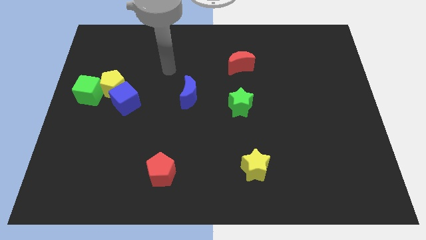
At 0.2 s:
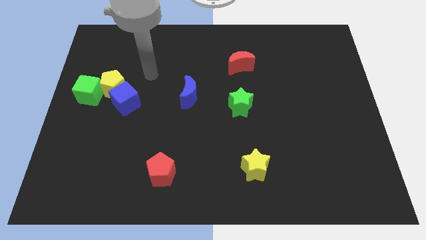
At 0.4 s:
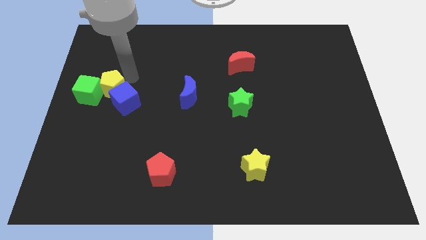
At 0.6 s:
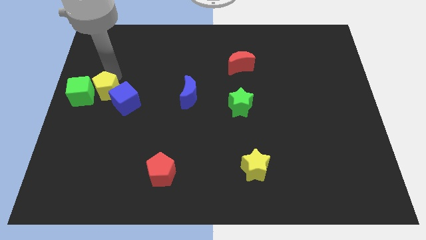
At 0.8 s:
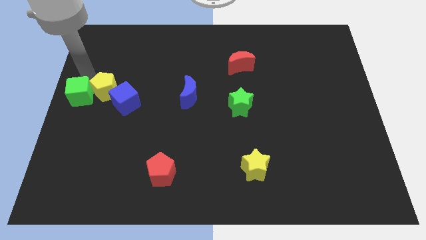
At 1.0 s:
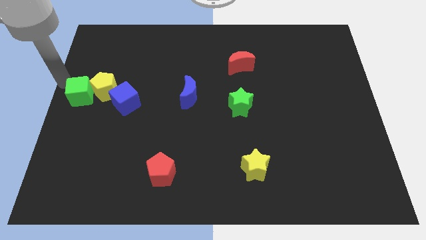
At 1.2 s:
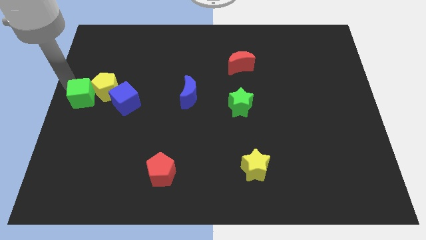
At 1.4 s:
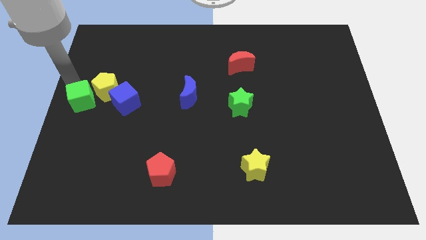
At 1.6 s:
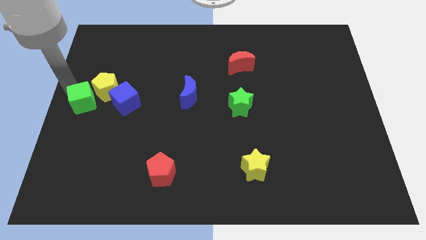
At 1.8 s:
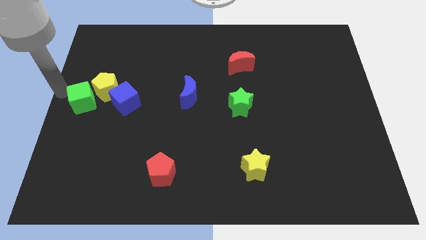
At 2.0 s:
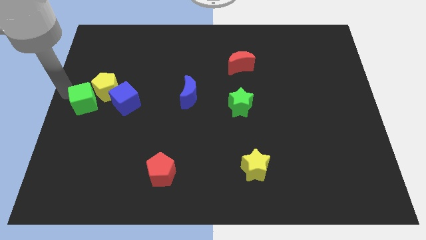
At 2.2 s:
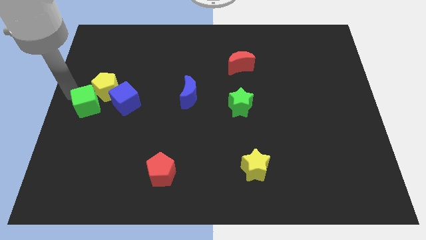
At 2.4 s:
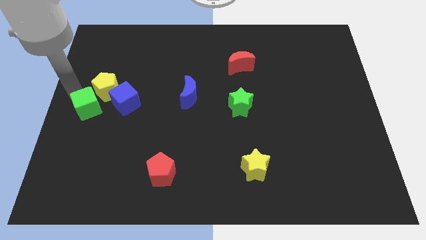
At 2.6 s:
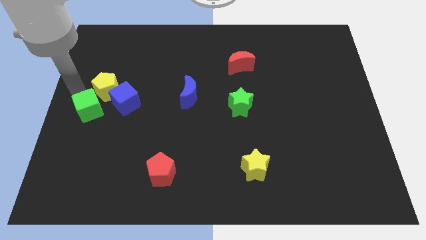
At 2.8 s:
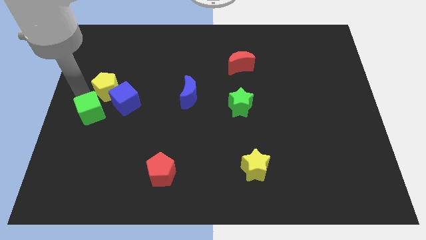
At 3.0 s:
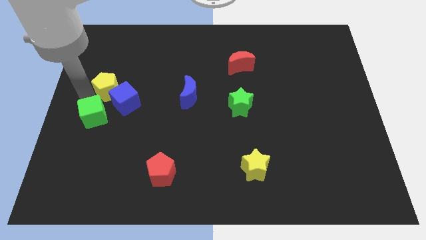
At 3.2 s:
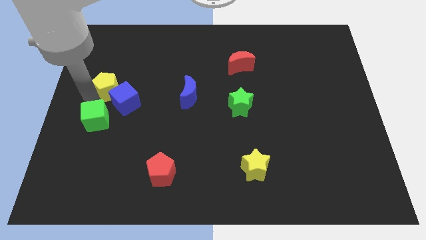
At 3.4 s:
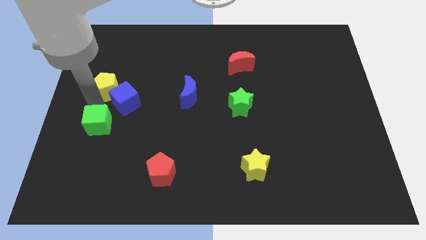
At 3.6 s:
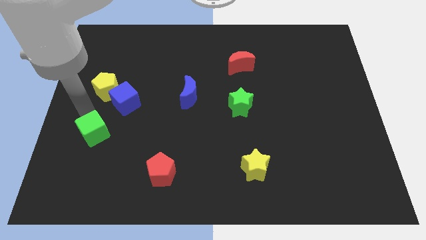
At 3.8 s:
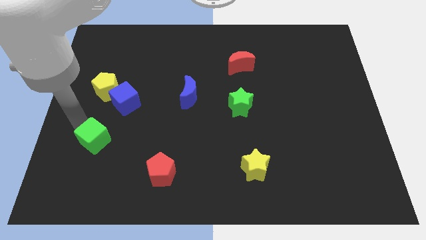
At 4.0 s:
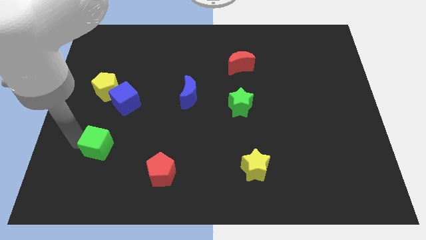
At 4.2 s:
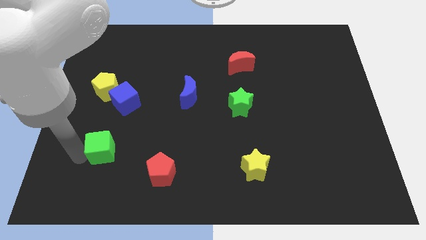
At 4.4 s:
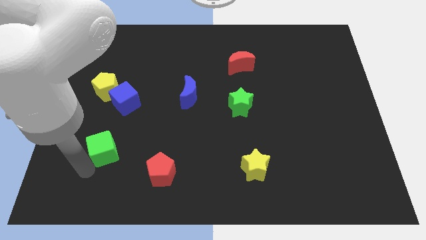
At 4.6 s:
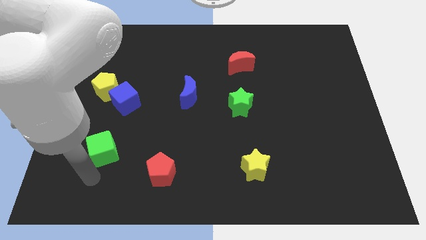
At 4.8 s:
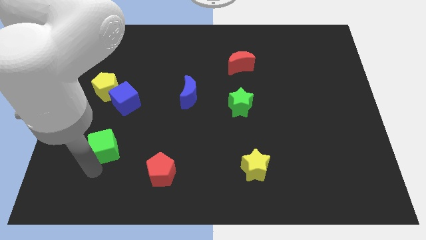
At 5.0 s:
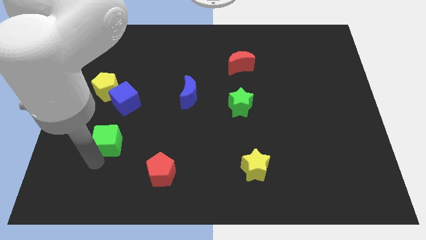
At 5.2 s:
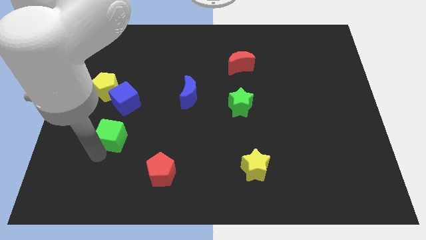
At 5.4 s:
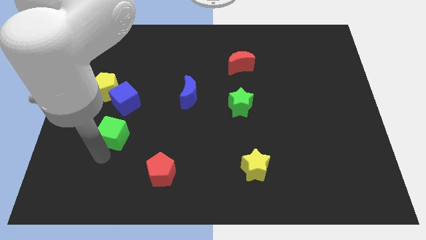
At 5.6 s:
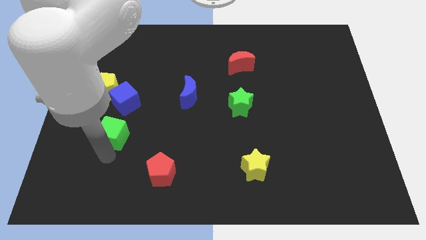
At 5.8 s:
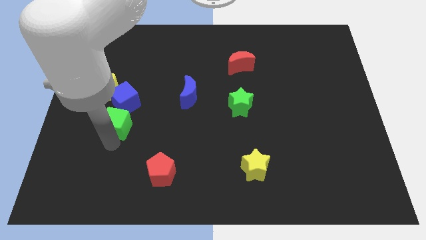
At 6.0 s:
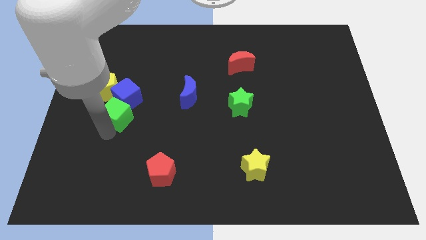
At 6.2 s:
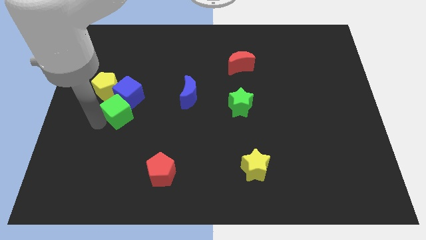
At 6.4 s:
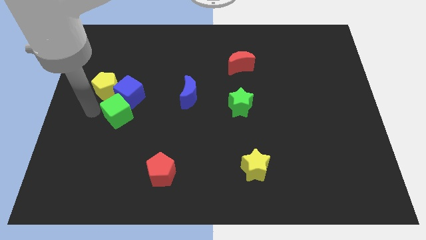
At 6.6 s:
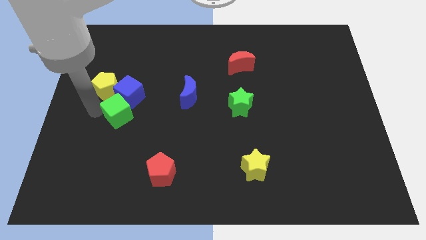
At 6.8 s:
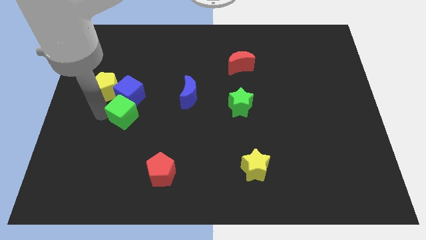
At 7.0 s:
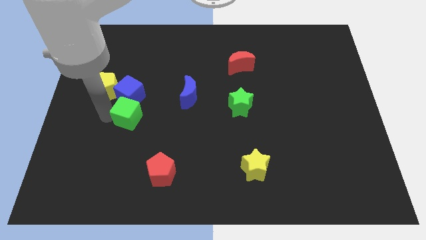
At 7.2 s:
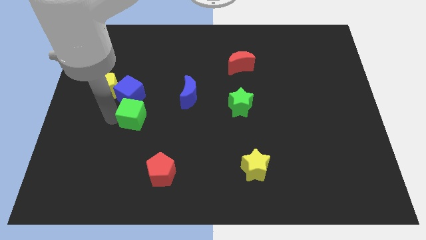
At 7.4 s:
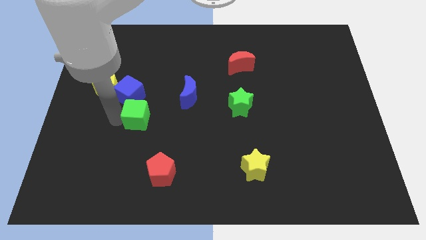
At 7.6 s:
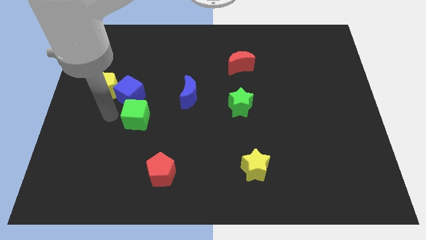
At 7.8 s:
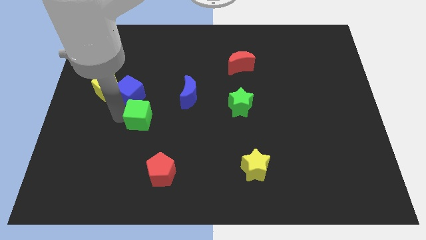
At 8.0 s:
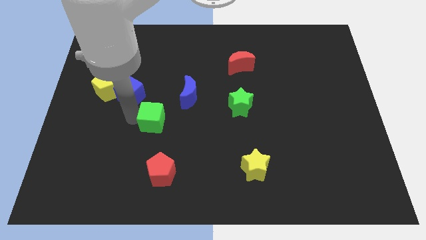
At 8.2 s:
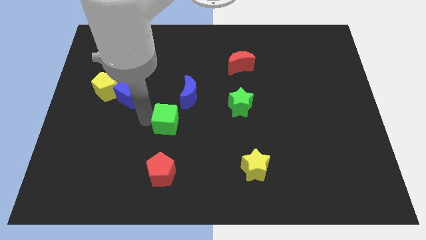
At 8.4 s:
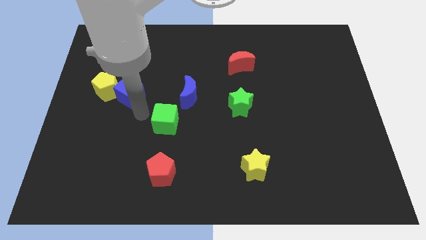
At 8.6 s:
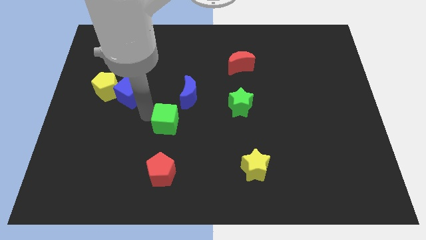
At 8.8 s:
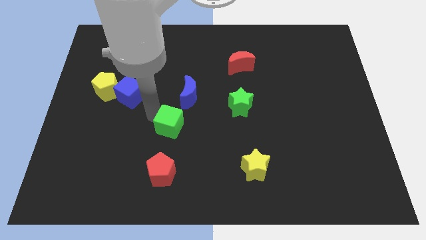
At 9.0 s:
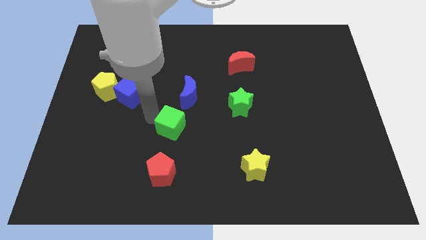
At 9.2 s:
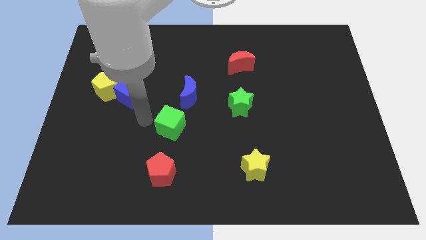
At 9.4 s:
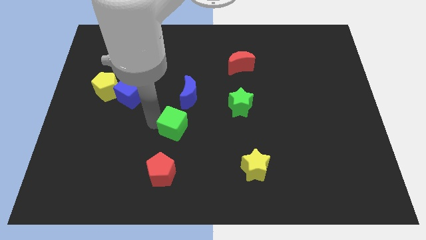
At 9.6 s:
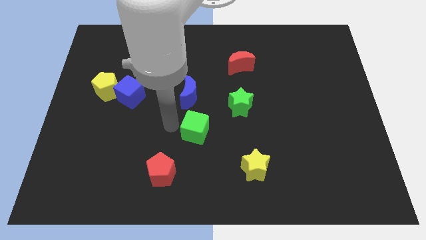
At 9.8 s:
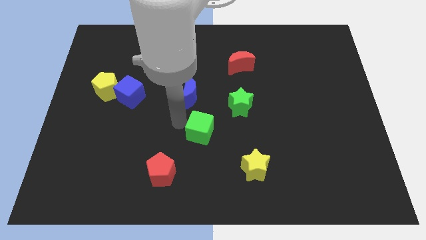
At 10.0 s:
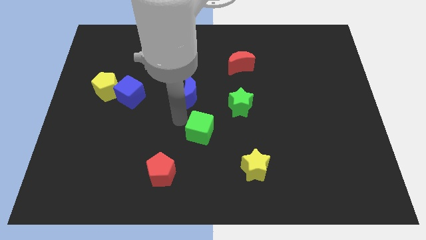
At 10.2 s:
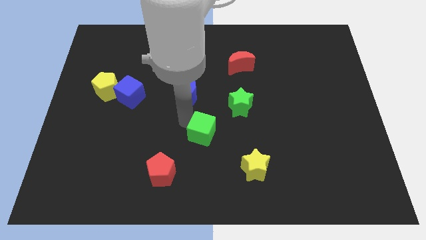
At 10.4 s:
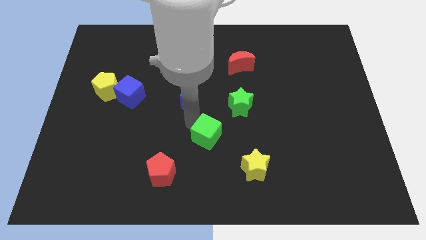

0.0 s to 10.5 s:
move the green cube to the top left of the yellow star

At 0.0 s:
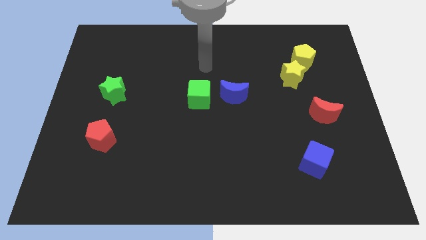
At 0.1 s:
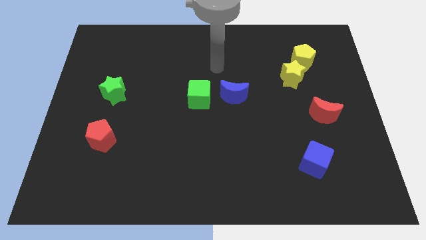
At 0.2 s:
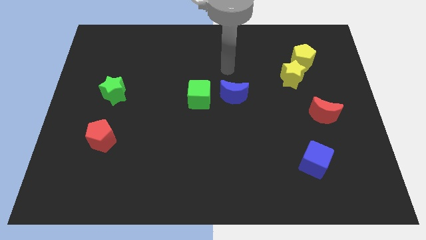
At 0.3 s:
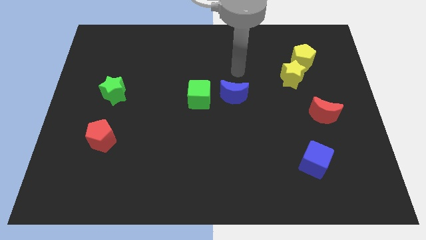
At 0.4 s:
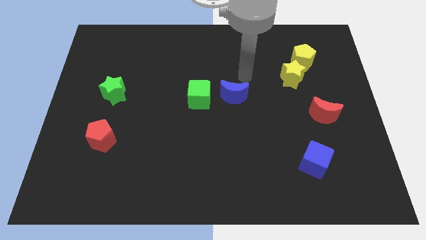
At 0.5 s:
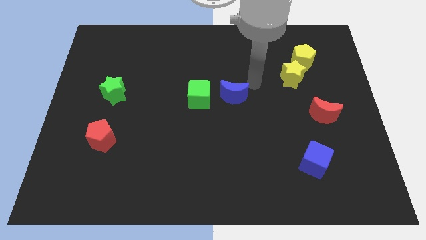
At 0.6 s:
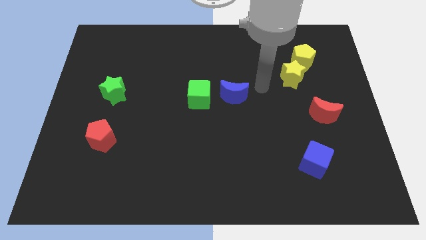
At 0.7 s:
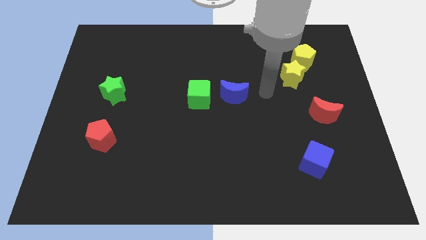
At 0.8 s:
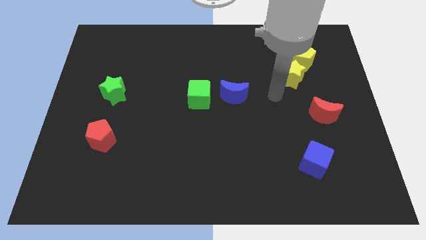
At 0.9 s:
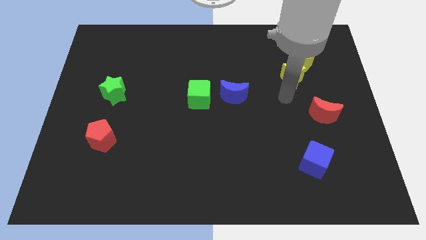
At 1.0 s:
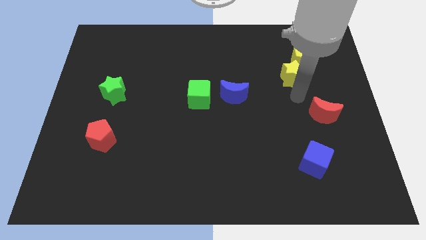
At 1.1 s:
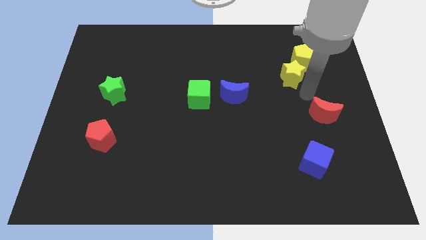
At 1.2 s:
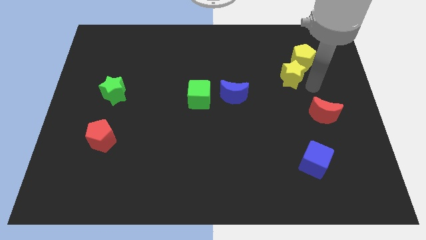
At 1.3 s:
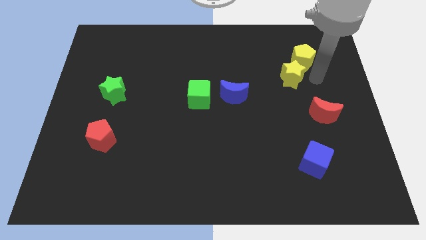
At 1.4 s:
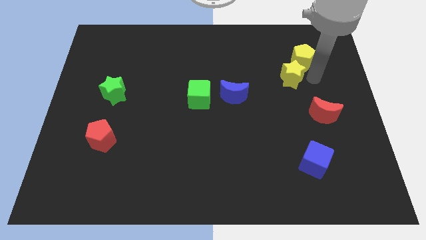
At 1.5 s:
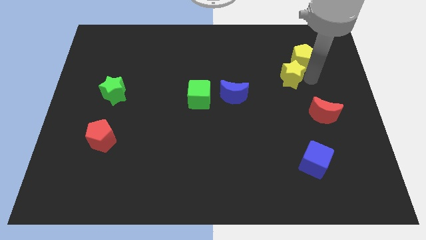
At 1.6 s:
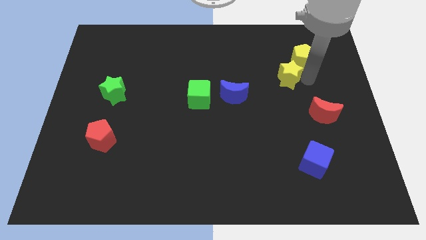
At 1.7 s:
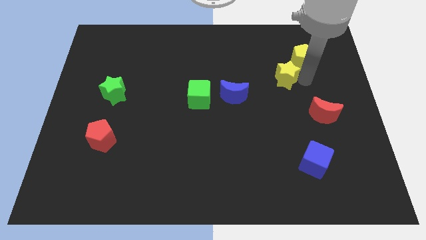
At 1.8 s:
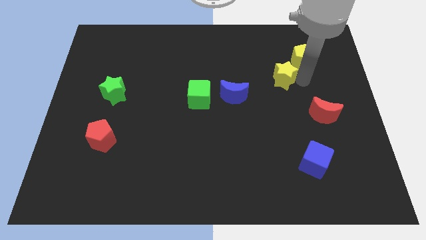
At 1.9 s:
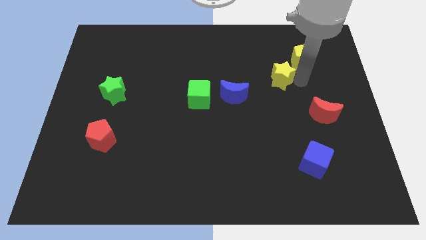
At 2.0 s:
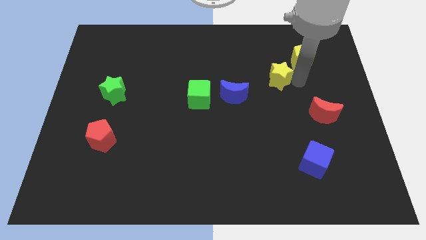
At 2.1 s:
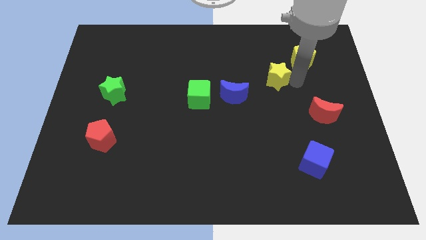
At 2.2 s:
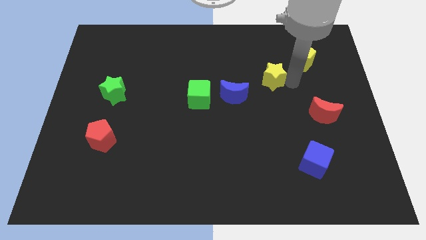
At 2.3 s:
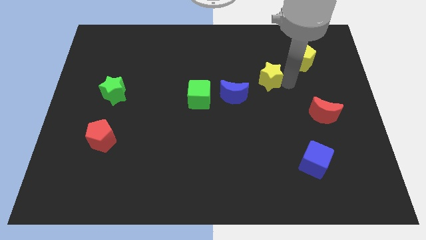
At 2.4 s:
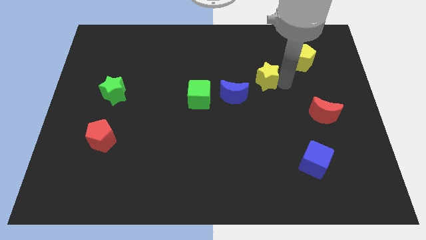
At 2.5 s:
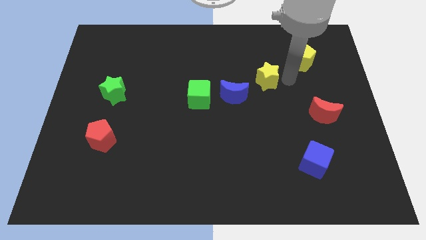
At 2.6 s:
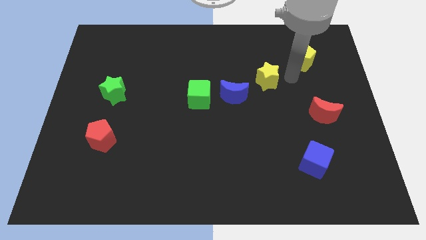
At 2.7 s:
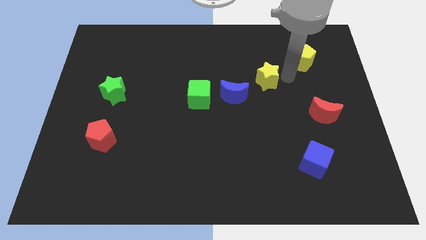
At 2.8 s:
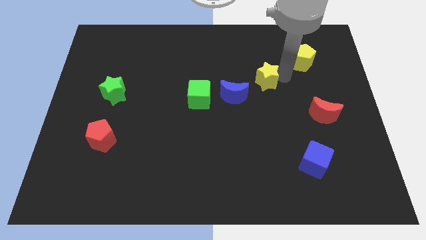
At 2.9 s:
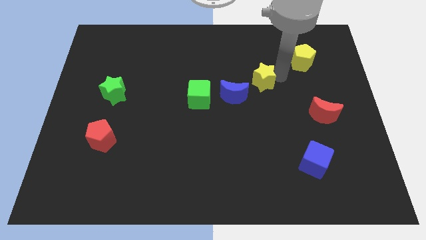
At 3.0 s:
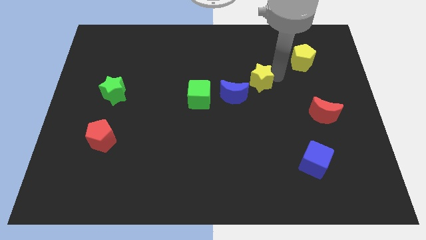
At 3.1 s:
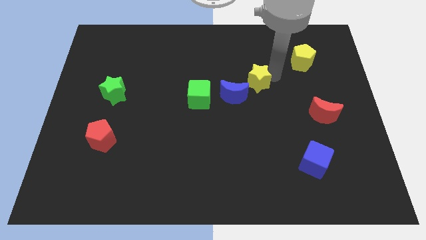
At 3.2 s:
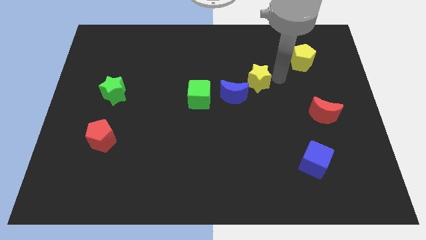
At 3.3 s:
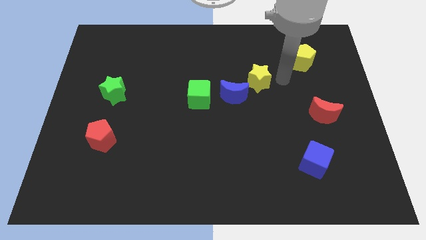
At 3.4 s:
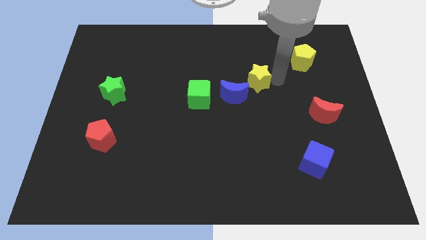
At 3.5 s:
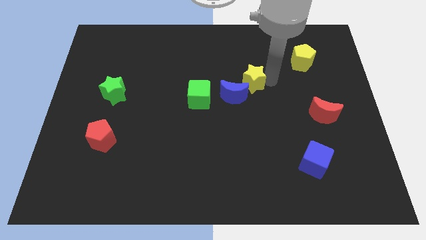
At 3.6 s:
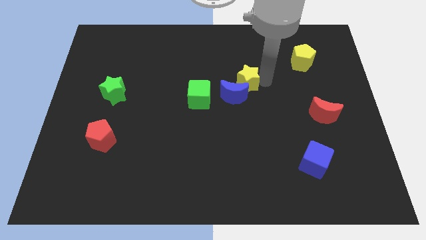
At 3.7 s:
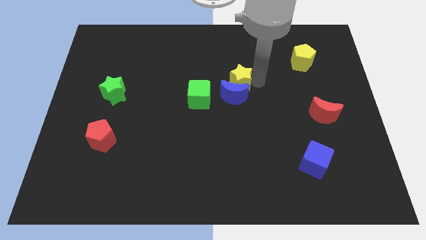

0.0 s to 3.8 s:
push the yellow star to the top right of the green cube
